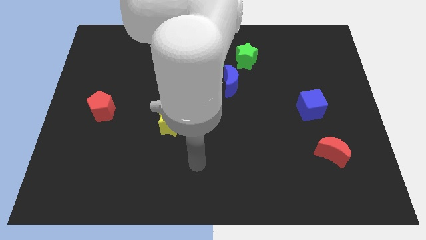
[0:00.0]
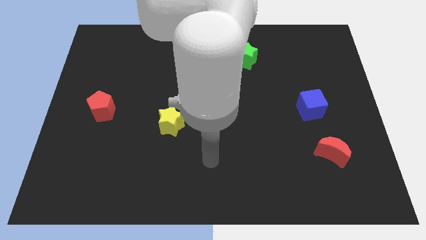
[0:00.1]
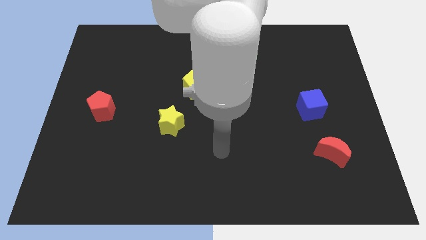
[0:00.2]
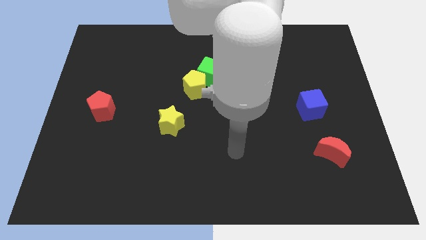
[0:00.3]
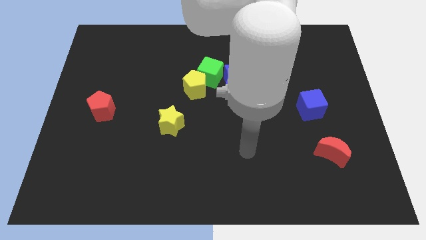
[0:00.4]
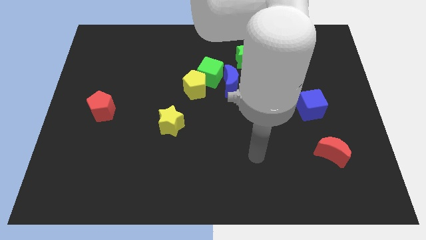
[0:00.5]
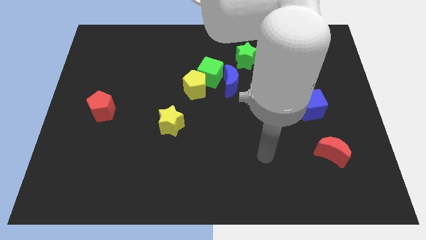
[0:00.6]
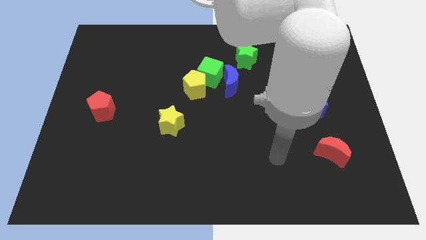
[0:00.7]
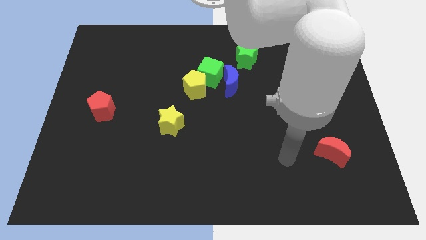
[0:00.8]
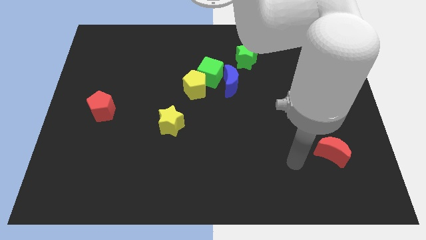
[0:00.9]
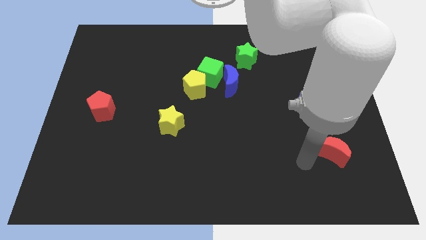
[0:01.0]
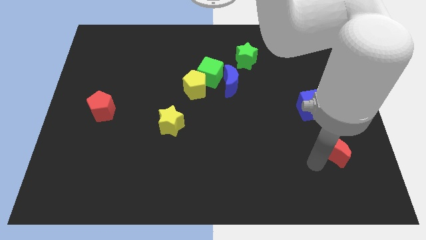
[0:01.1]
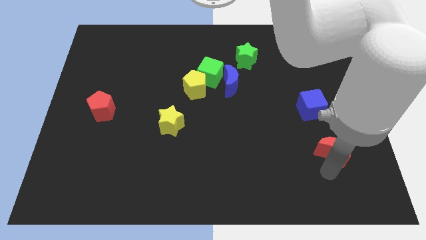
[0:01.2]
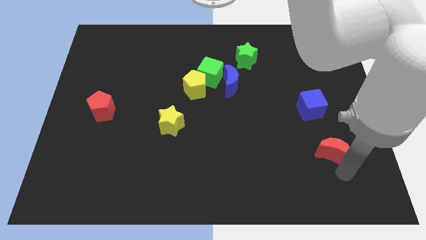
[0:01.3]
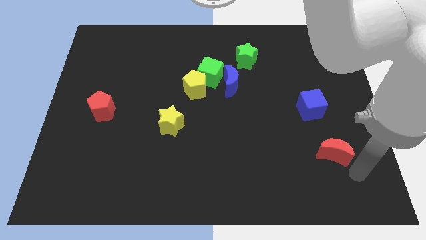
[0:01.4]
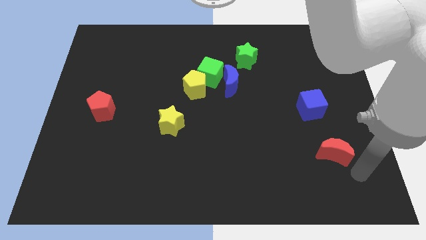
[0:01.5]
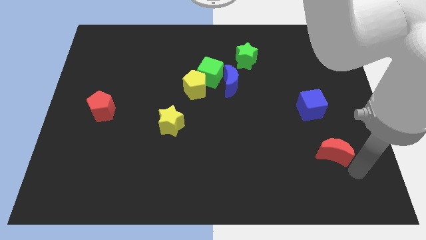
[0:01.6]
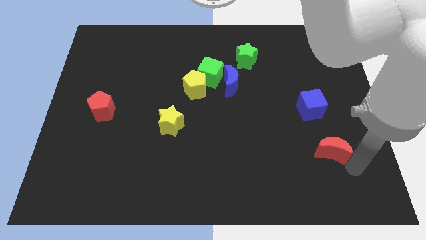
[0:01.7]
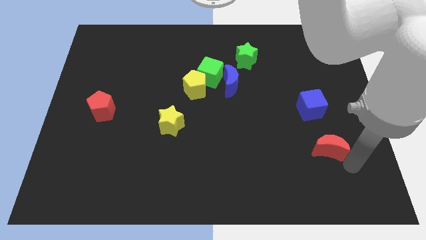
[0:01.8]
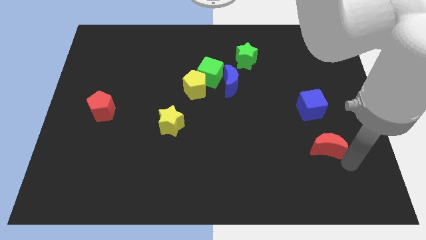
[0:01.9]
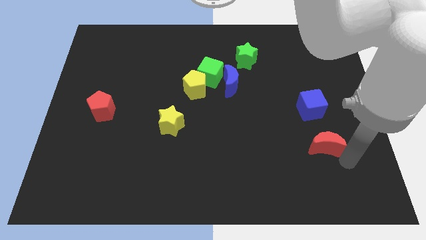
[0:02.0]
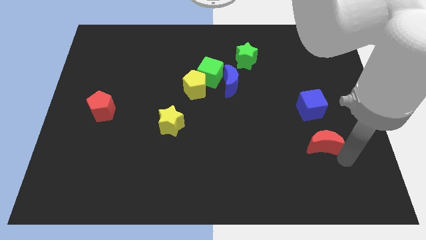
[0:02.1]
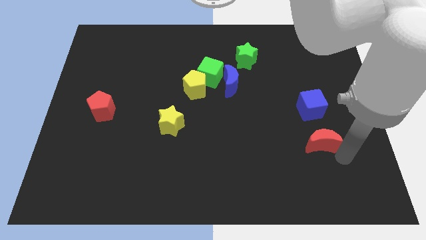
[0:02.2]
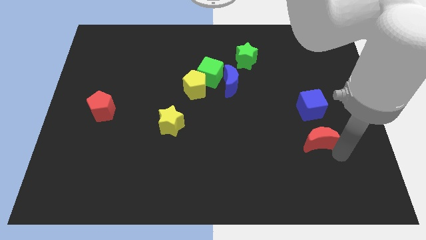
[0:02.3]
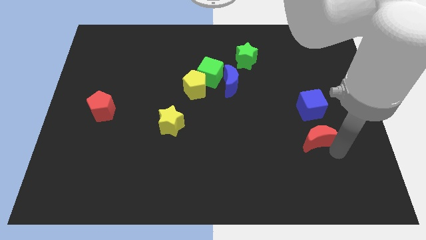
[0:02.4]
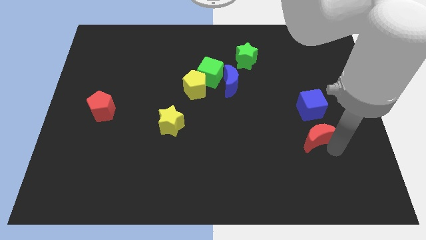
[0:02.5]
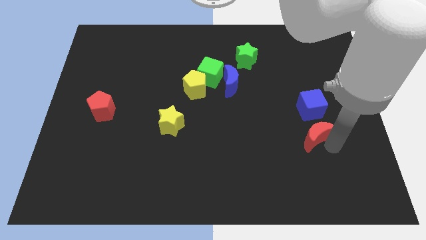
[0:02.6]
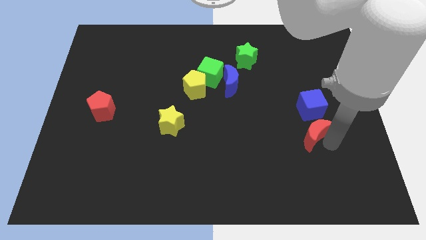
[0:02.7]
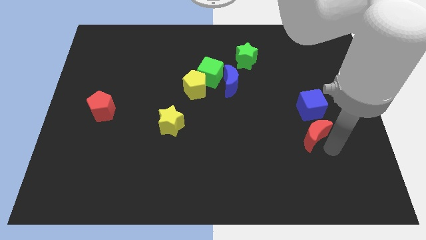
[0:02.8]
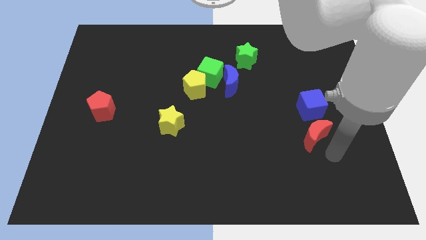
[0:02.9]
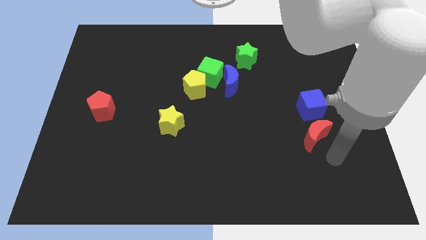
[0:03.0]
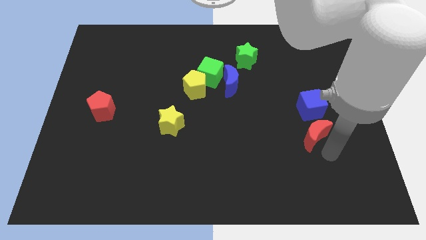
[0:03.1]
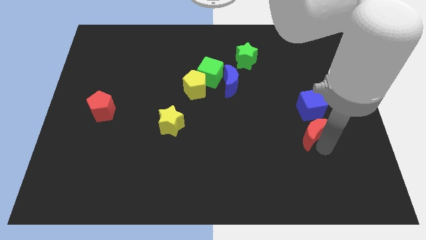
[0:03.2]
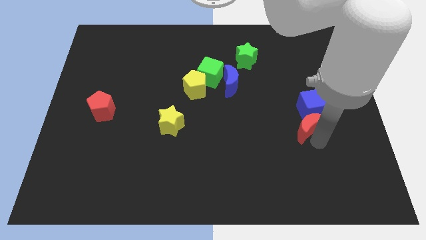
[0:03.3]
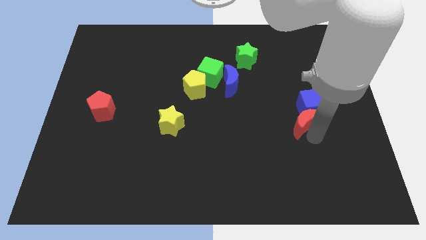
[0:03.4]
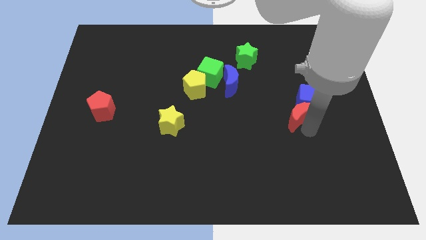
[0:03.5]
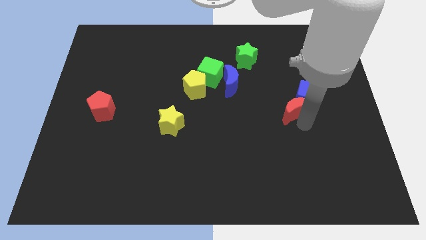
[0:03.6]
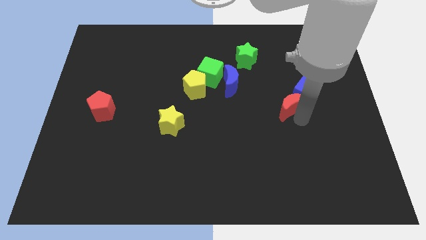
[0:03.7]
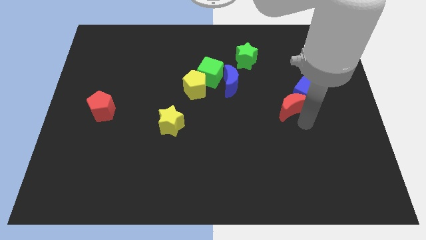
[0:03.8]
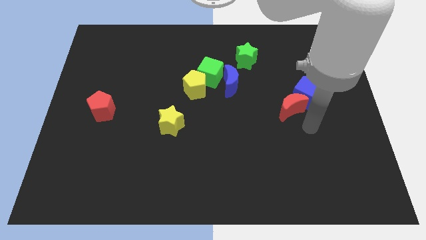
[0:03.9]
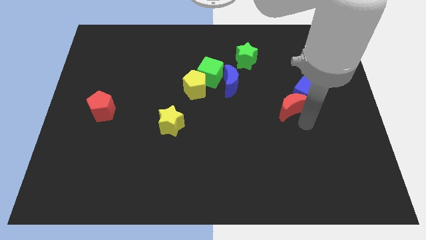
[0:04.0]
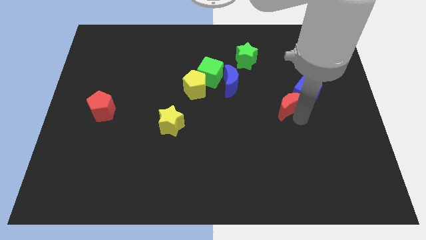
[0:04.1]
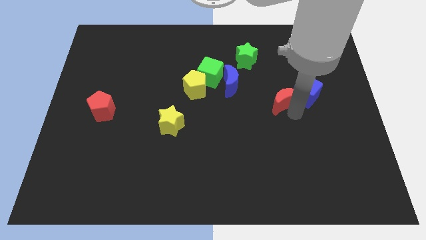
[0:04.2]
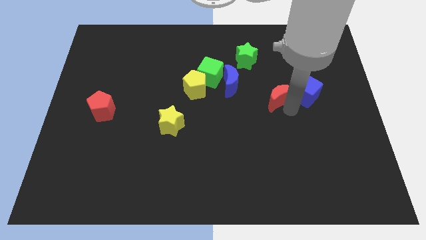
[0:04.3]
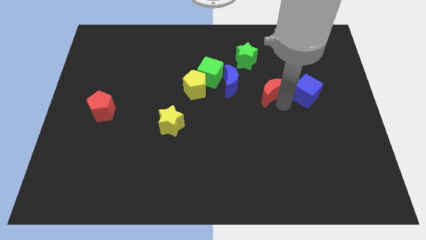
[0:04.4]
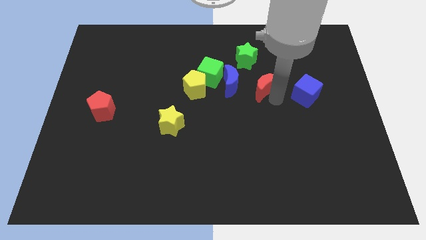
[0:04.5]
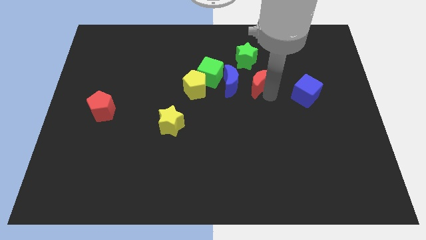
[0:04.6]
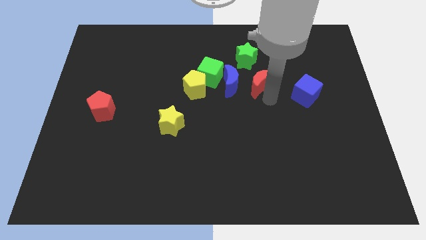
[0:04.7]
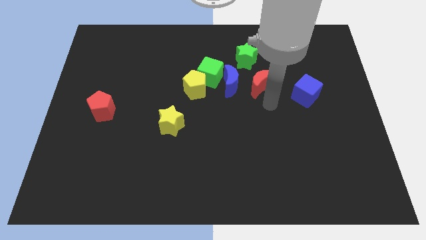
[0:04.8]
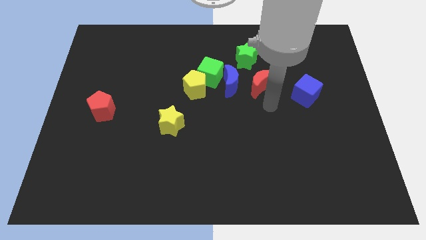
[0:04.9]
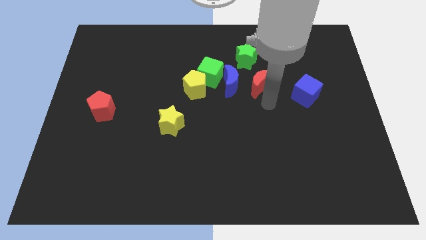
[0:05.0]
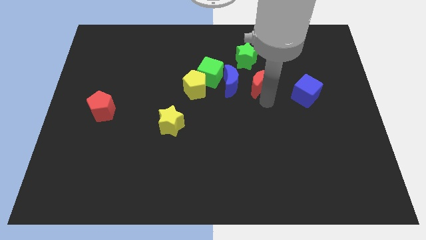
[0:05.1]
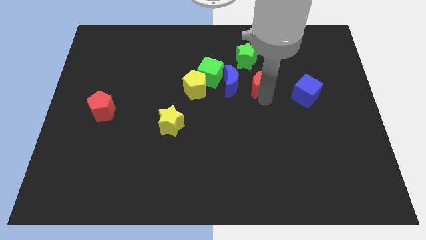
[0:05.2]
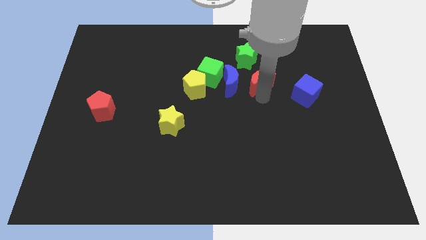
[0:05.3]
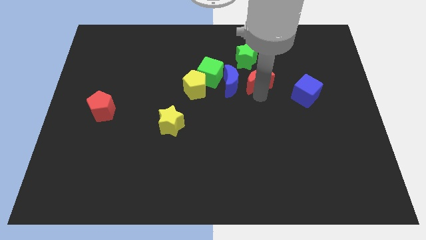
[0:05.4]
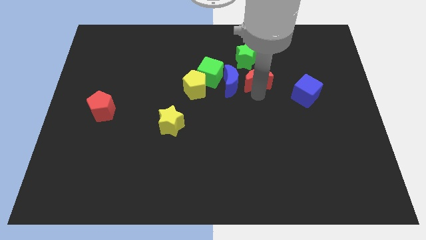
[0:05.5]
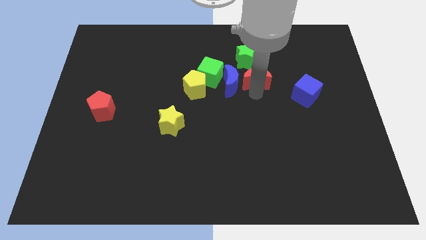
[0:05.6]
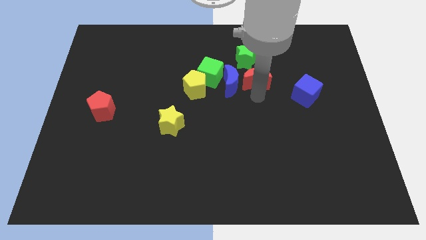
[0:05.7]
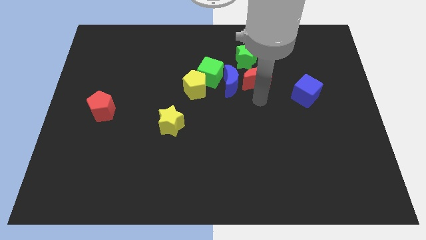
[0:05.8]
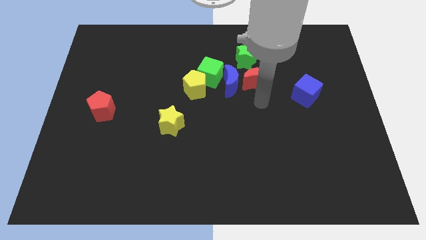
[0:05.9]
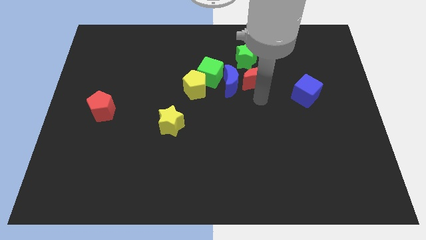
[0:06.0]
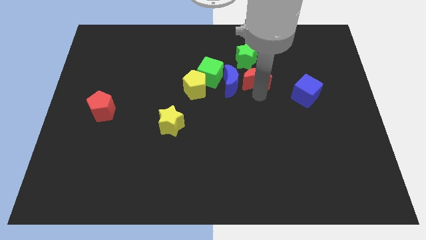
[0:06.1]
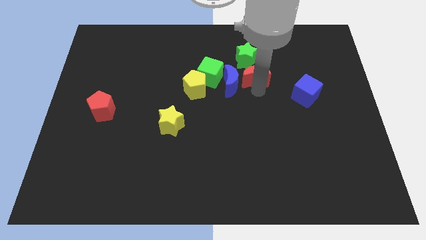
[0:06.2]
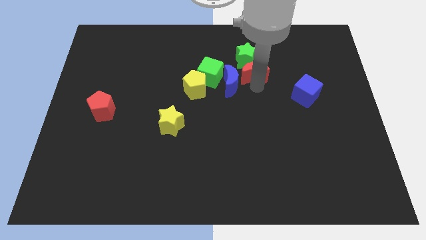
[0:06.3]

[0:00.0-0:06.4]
put the red moon towards the green star

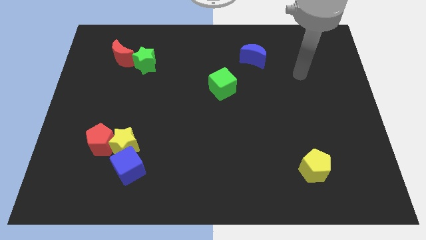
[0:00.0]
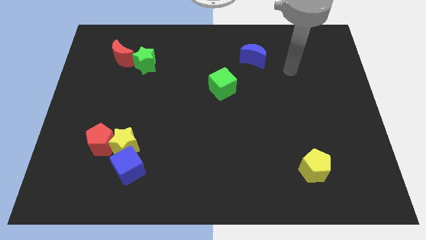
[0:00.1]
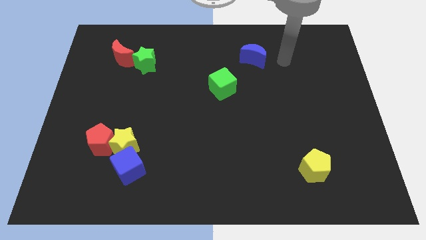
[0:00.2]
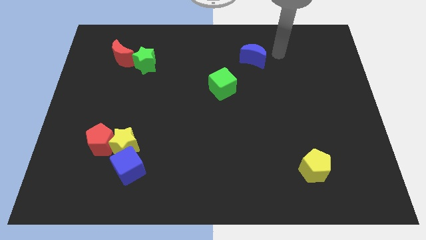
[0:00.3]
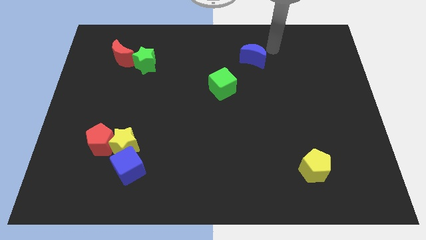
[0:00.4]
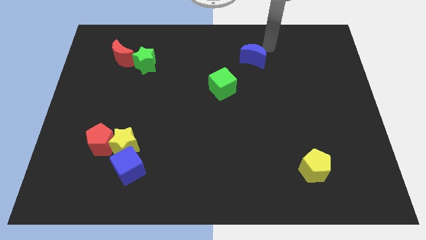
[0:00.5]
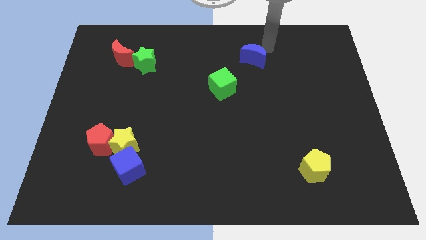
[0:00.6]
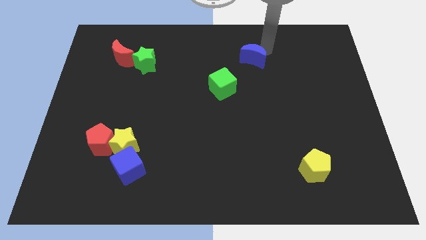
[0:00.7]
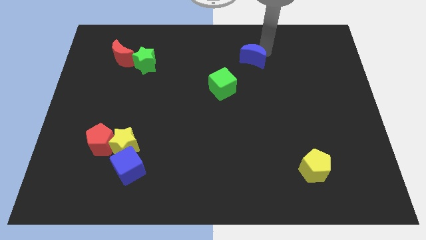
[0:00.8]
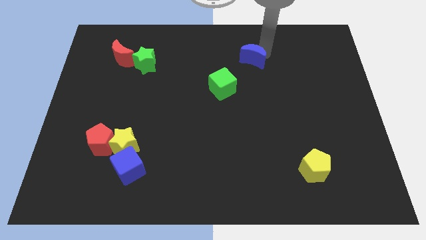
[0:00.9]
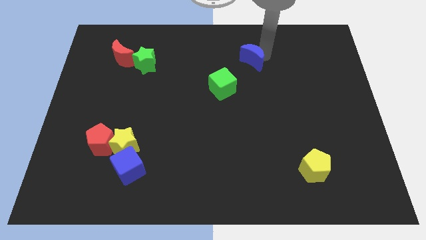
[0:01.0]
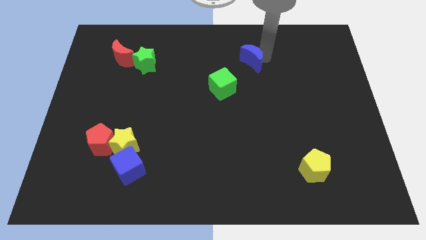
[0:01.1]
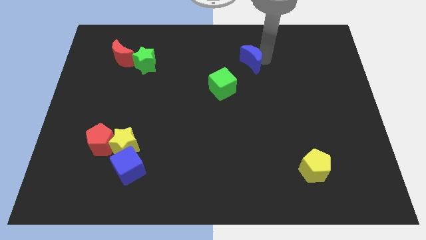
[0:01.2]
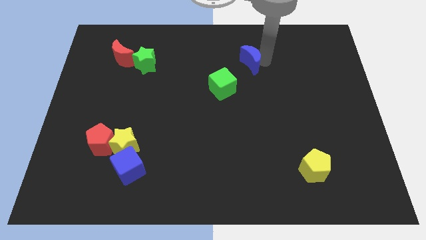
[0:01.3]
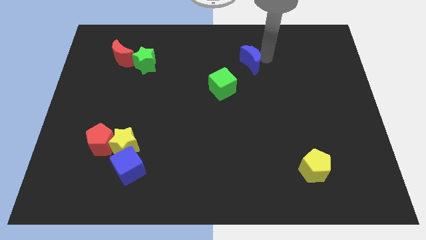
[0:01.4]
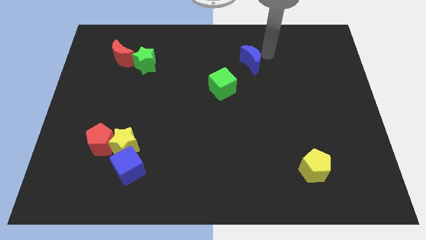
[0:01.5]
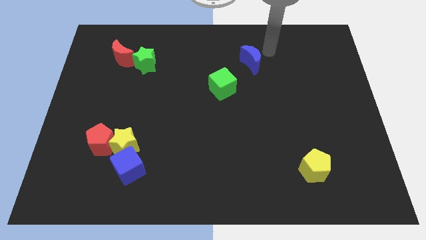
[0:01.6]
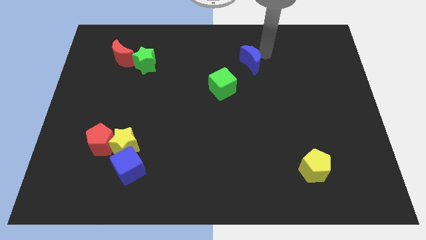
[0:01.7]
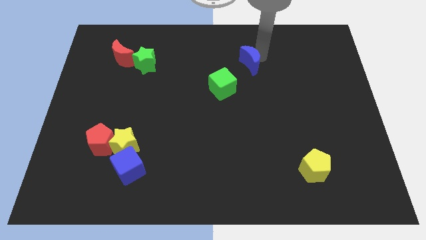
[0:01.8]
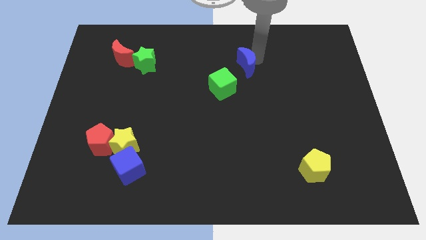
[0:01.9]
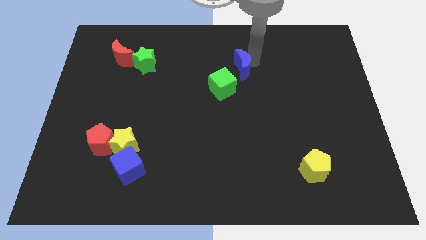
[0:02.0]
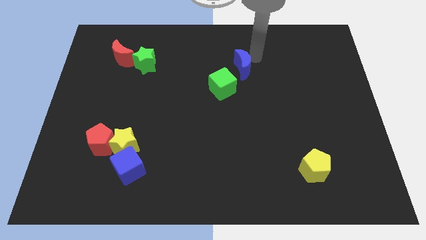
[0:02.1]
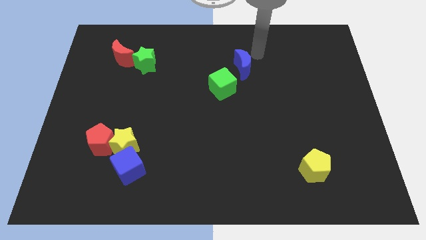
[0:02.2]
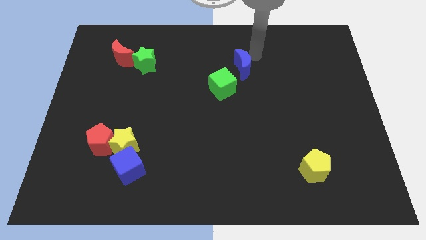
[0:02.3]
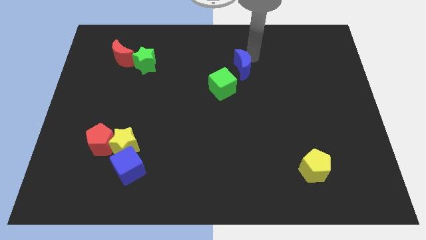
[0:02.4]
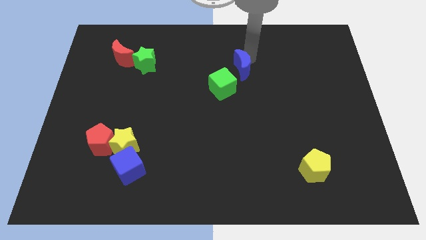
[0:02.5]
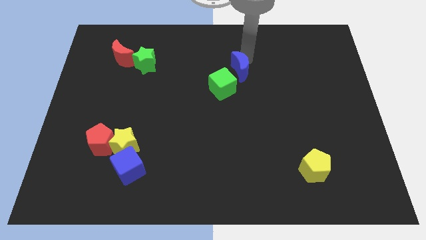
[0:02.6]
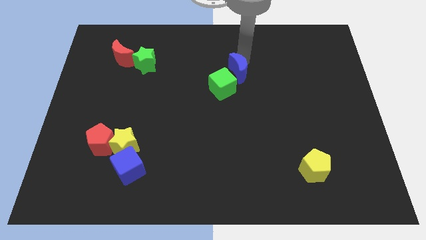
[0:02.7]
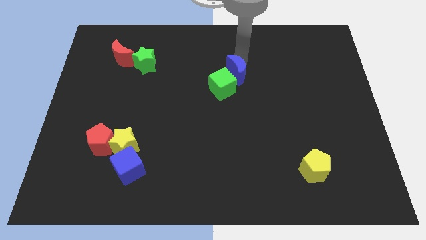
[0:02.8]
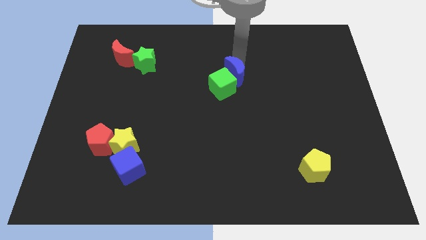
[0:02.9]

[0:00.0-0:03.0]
put the blue moon next to the green cube
